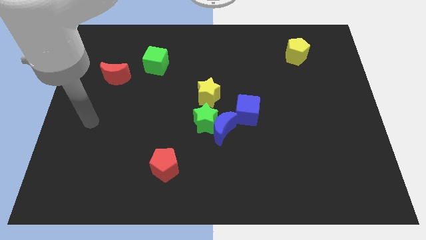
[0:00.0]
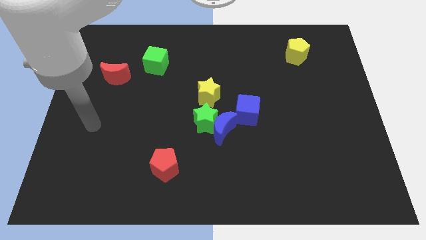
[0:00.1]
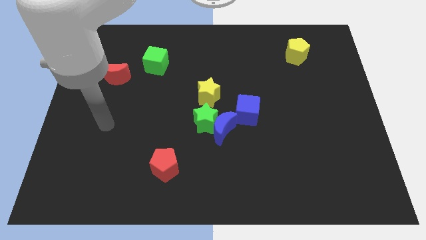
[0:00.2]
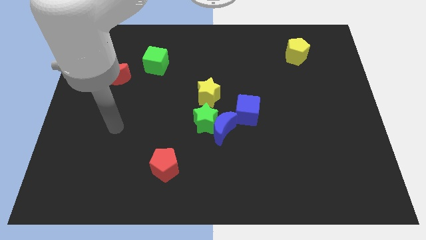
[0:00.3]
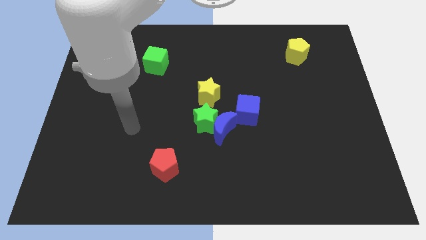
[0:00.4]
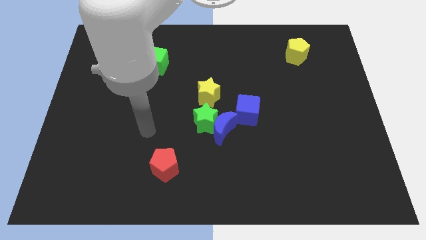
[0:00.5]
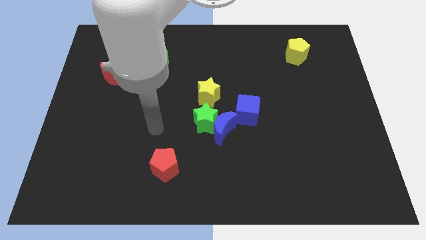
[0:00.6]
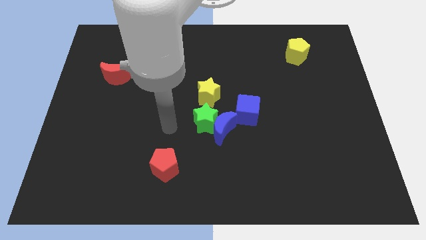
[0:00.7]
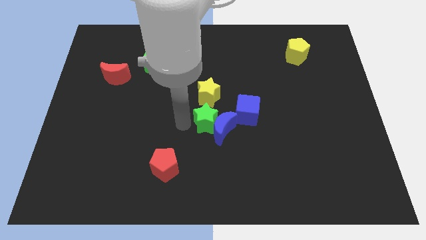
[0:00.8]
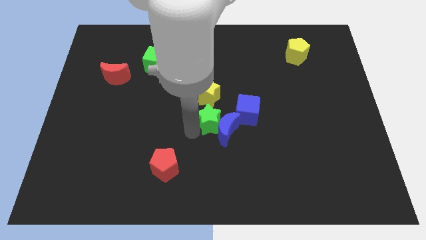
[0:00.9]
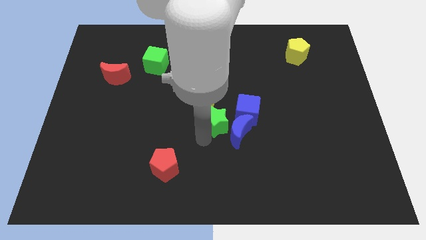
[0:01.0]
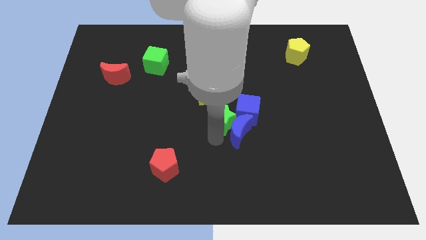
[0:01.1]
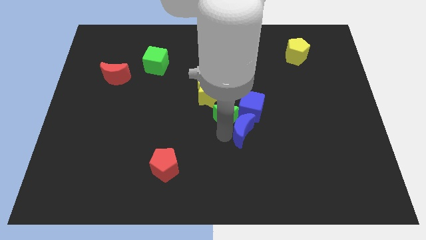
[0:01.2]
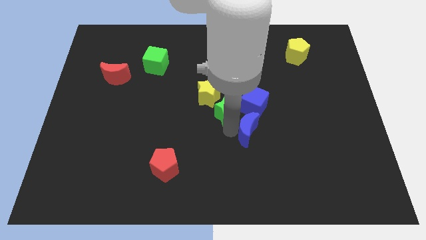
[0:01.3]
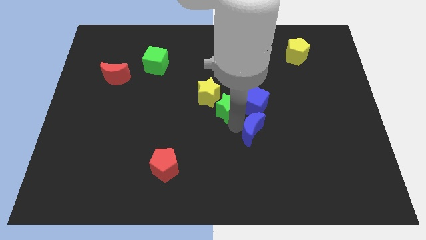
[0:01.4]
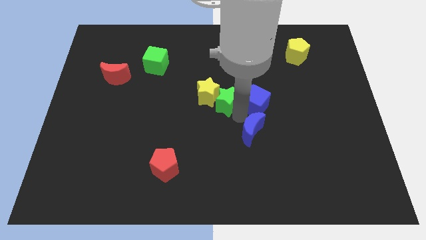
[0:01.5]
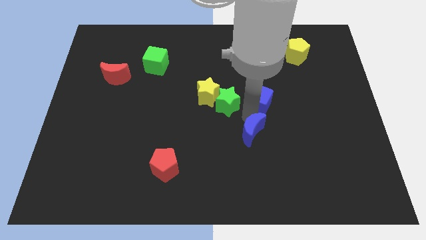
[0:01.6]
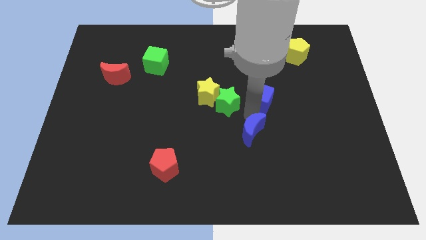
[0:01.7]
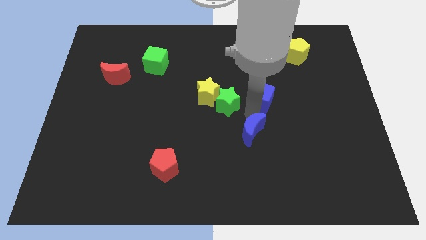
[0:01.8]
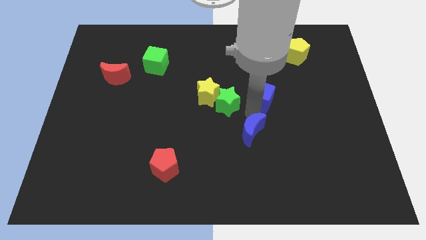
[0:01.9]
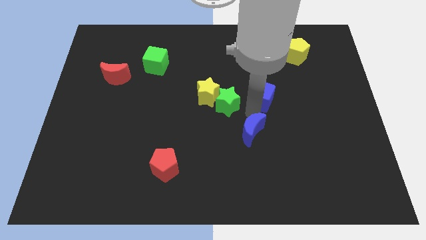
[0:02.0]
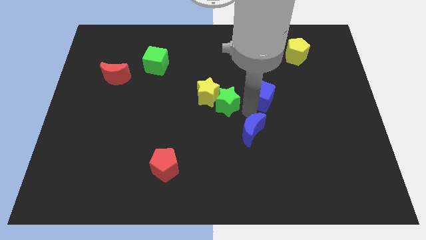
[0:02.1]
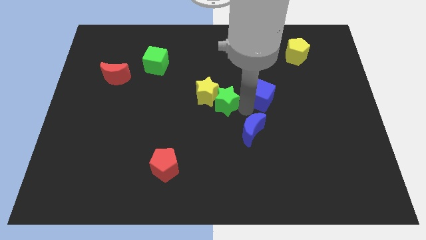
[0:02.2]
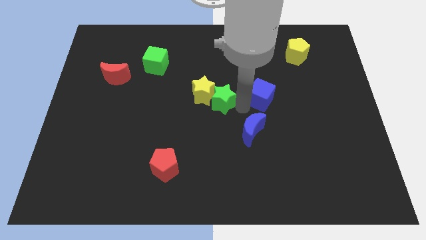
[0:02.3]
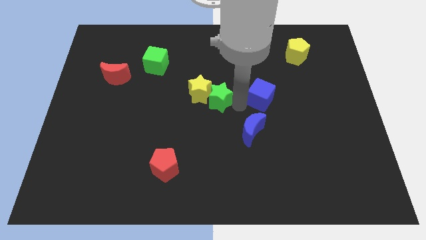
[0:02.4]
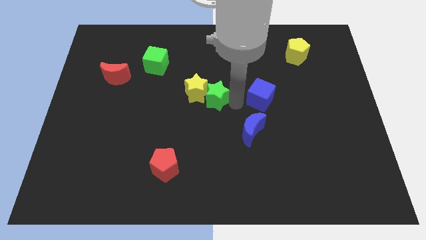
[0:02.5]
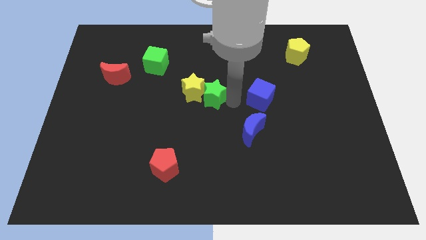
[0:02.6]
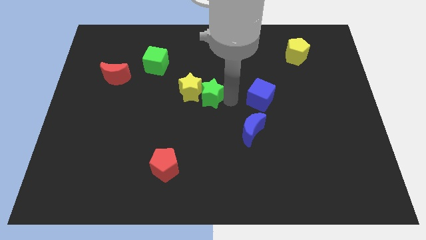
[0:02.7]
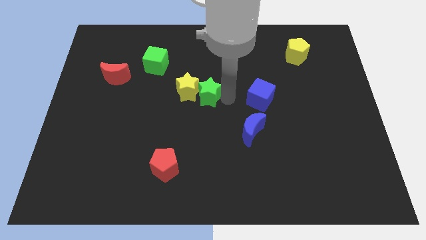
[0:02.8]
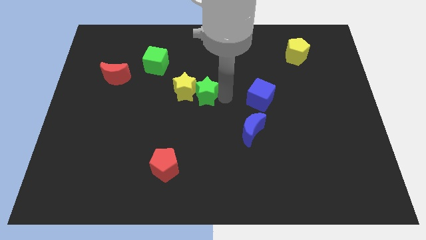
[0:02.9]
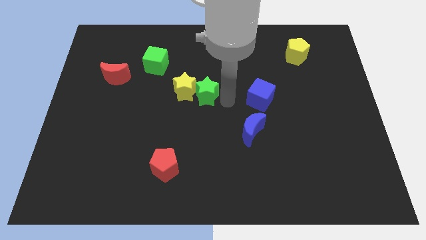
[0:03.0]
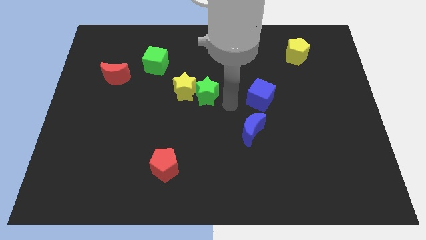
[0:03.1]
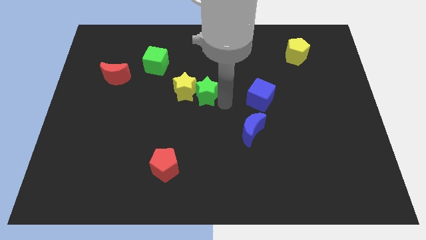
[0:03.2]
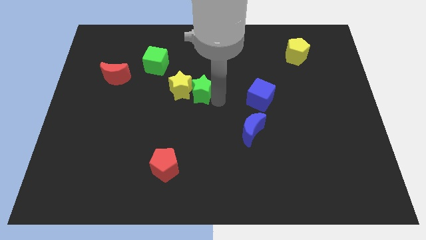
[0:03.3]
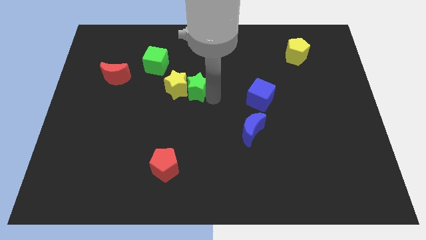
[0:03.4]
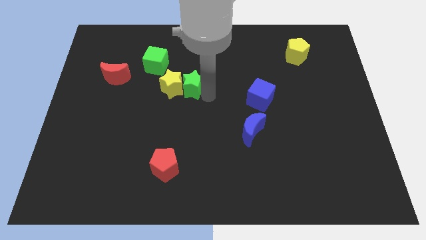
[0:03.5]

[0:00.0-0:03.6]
move the green star away from the group of blocks

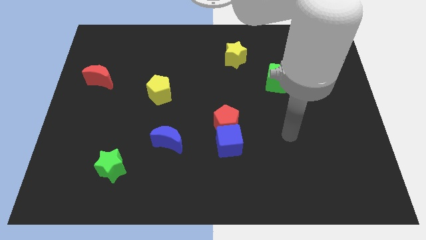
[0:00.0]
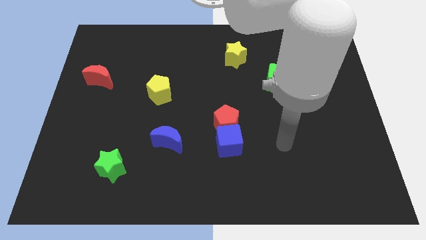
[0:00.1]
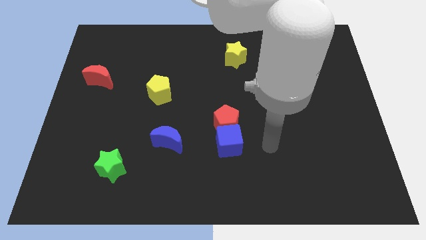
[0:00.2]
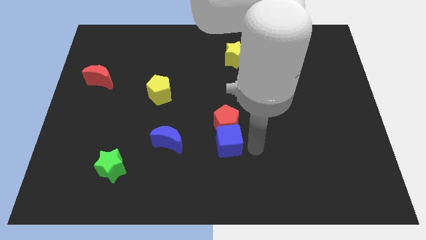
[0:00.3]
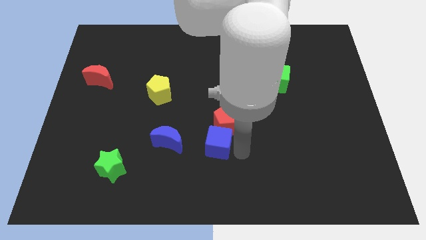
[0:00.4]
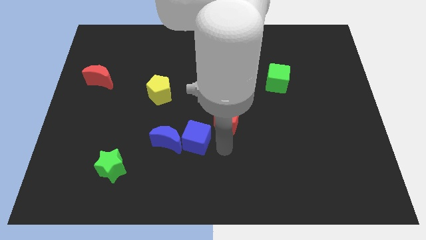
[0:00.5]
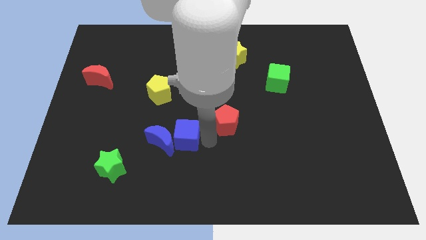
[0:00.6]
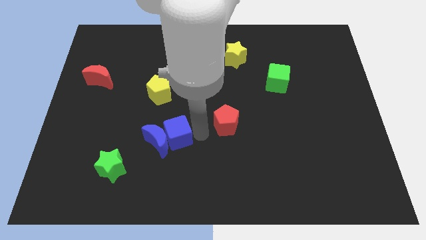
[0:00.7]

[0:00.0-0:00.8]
move the red pentagon away from the blue cube

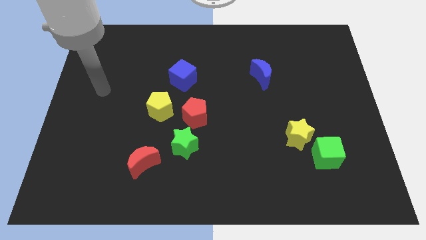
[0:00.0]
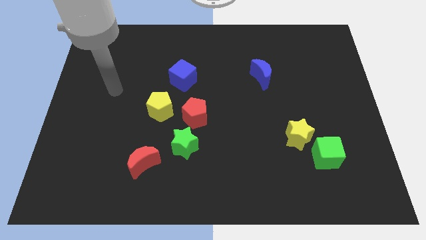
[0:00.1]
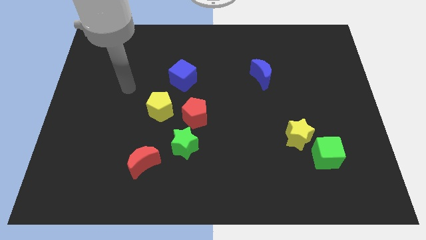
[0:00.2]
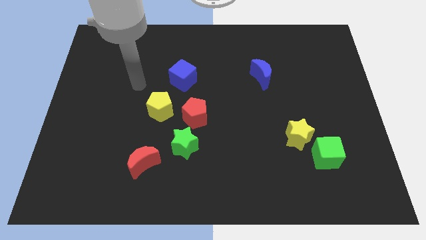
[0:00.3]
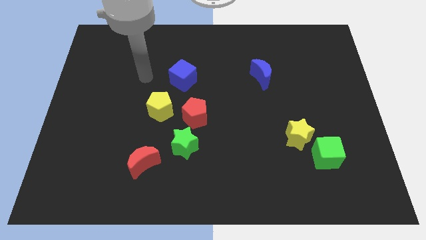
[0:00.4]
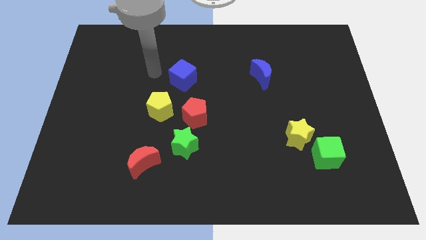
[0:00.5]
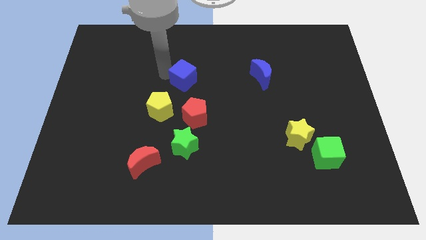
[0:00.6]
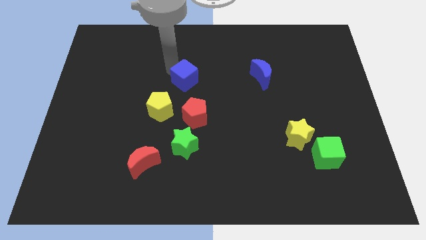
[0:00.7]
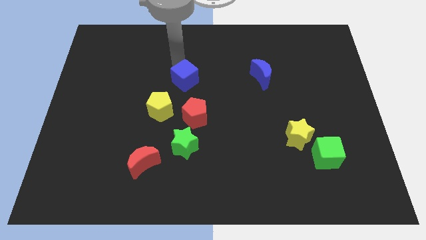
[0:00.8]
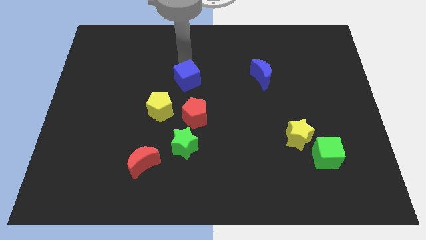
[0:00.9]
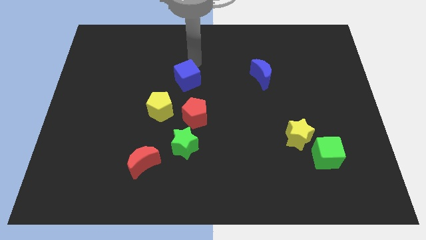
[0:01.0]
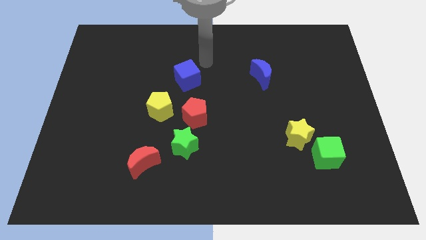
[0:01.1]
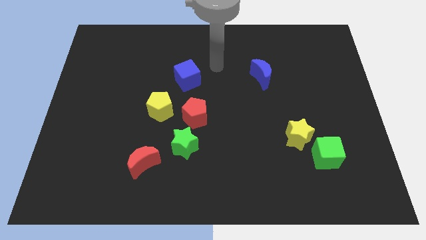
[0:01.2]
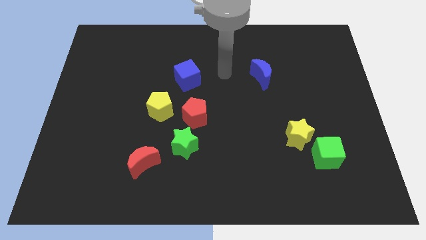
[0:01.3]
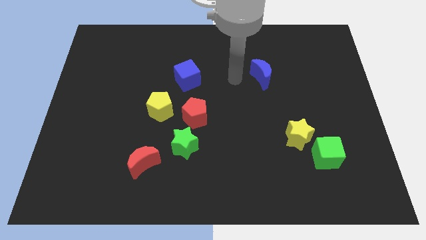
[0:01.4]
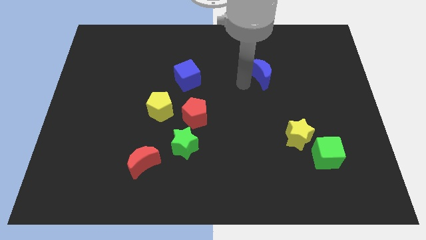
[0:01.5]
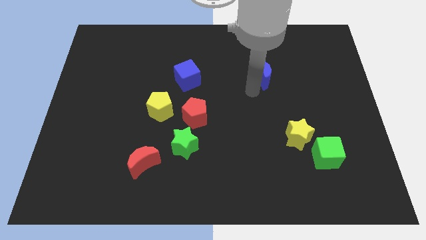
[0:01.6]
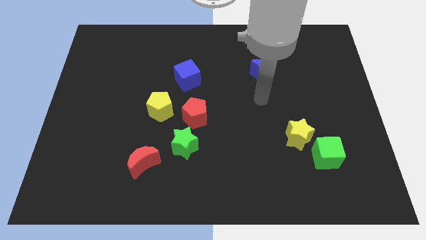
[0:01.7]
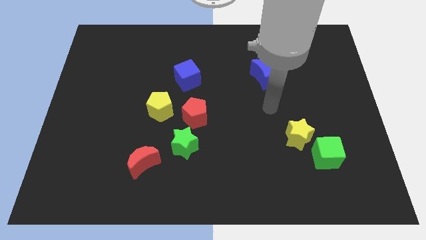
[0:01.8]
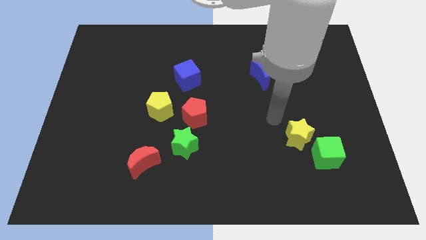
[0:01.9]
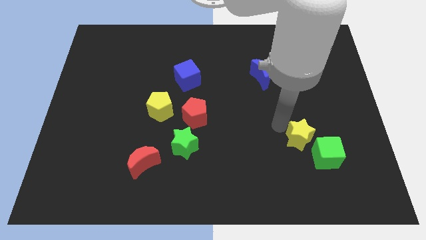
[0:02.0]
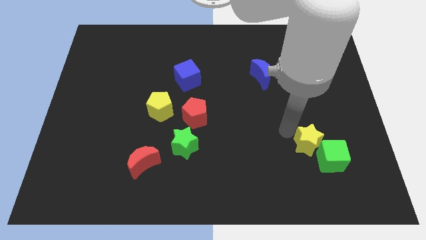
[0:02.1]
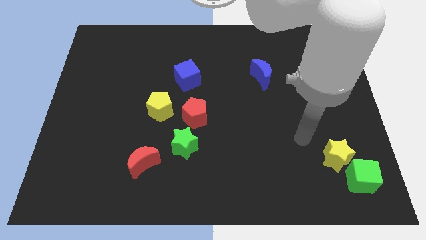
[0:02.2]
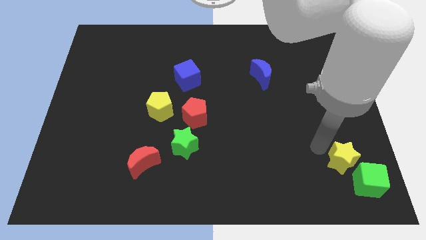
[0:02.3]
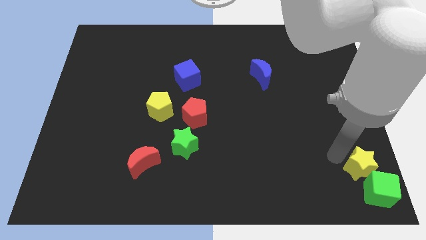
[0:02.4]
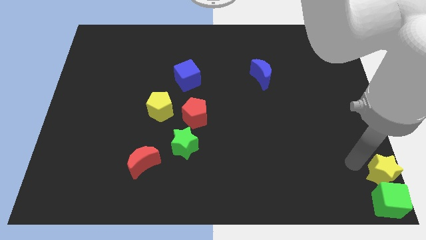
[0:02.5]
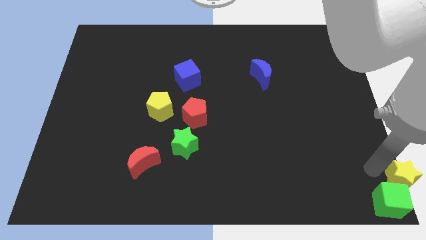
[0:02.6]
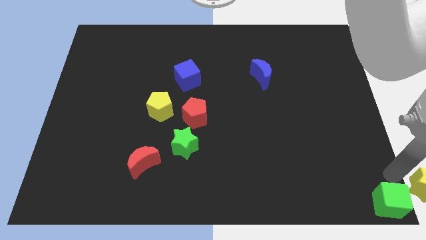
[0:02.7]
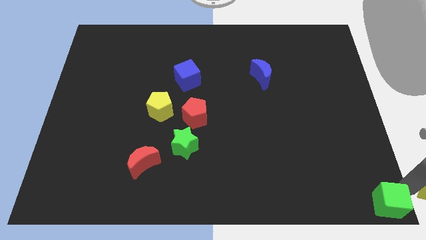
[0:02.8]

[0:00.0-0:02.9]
pull the green cube apart from the yellow star

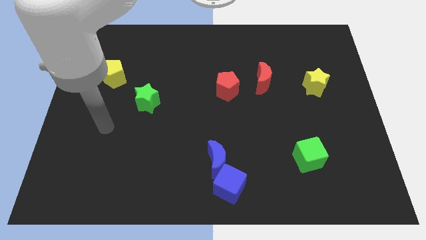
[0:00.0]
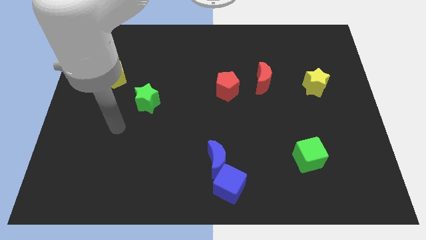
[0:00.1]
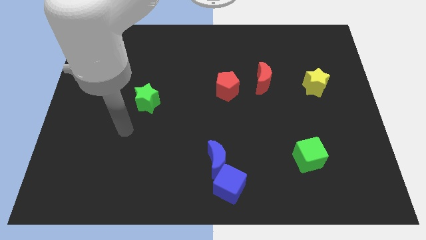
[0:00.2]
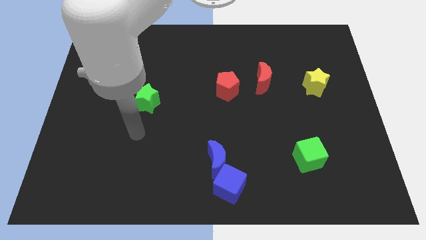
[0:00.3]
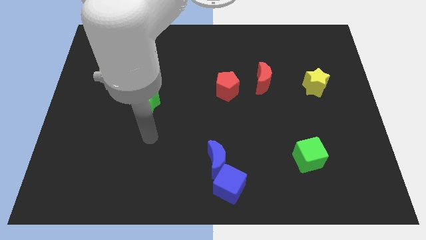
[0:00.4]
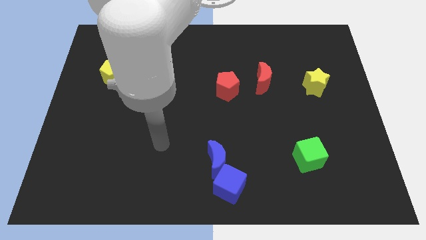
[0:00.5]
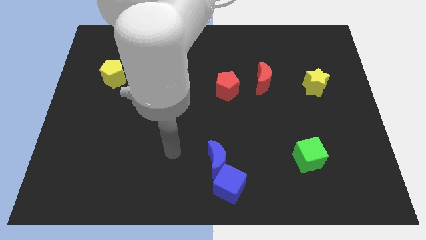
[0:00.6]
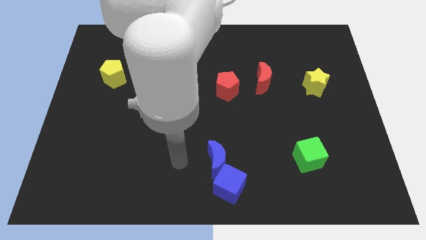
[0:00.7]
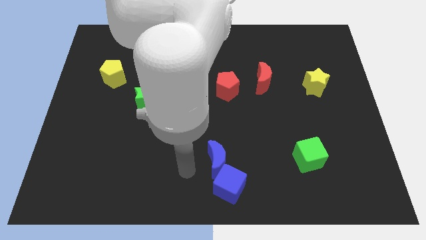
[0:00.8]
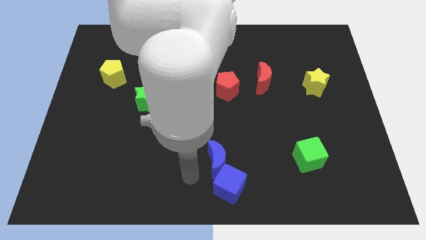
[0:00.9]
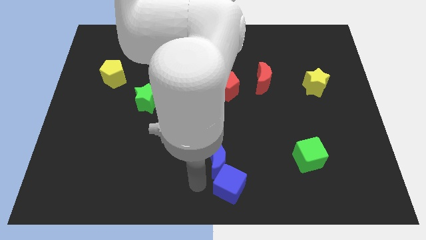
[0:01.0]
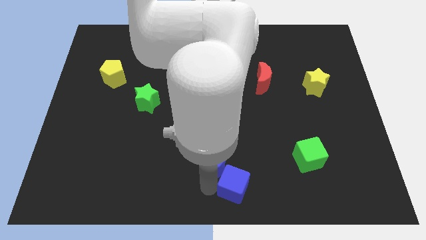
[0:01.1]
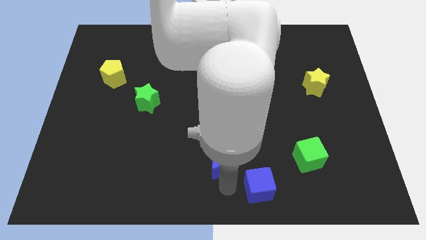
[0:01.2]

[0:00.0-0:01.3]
move the blue moon away from the blue cube

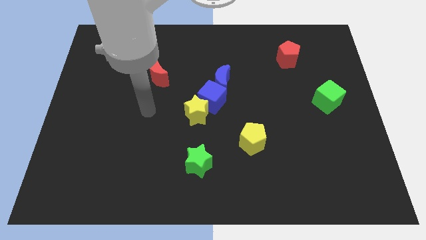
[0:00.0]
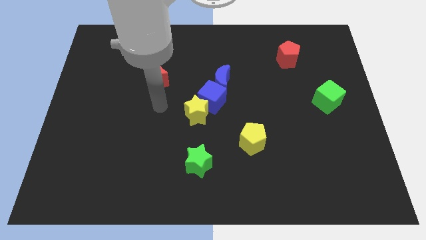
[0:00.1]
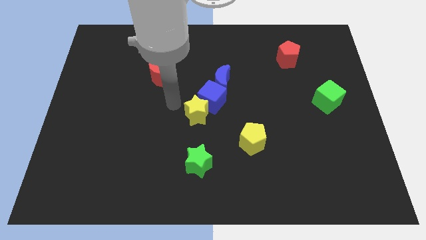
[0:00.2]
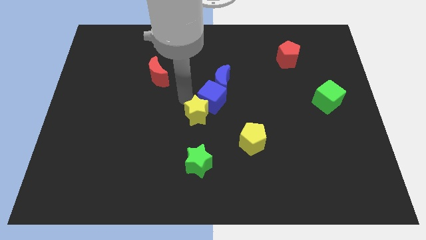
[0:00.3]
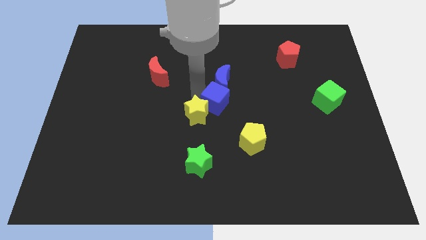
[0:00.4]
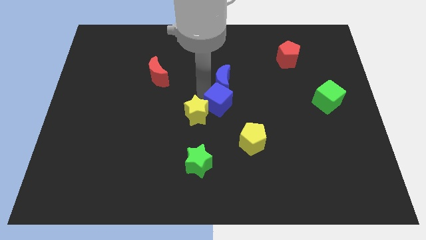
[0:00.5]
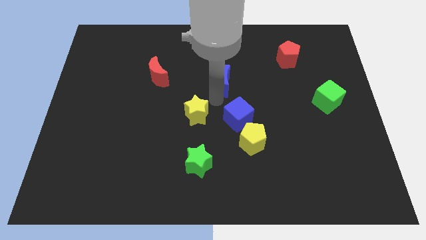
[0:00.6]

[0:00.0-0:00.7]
pull the yellow star apart from the blue cube
